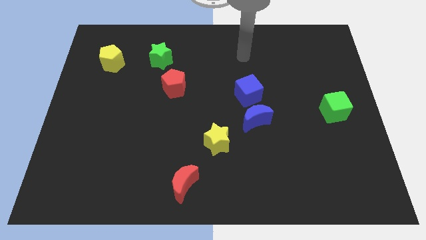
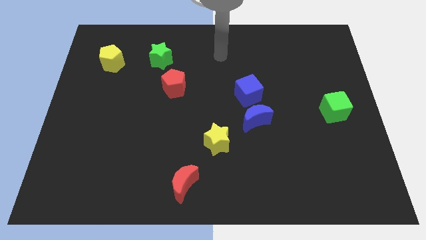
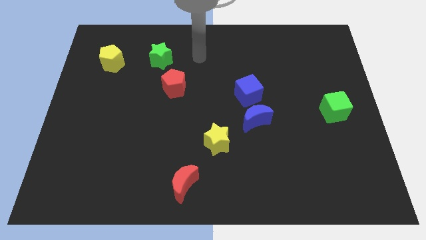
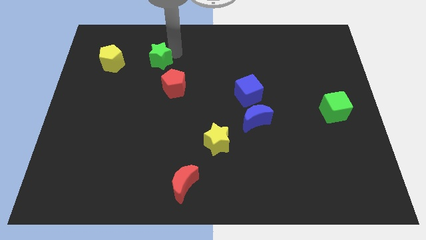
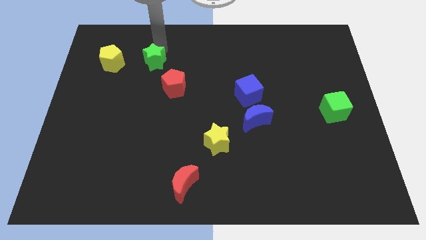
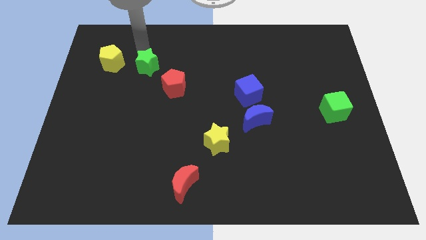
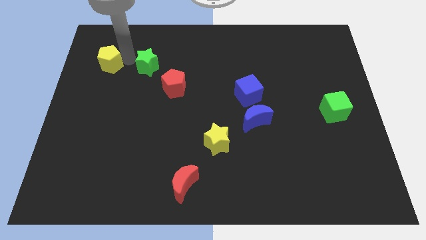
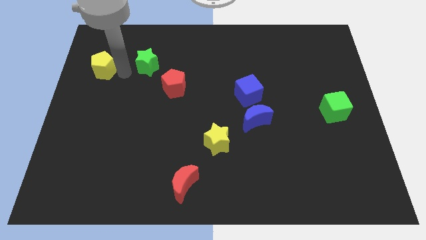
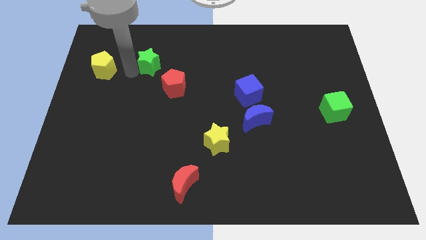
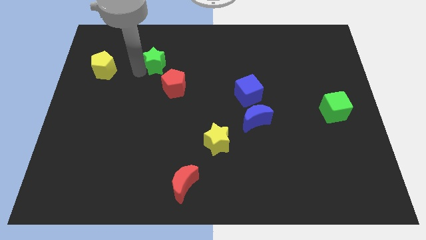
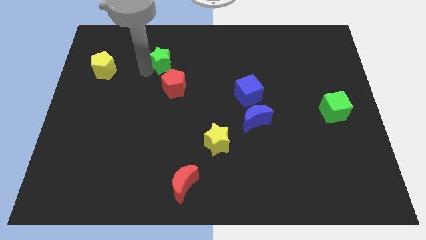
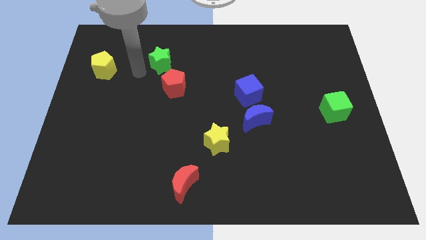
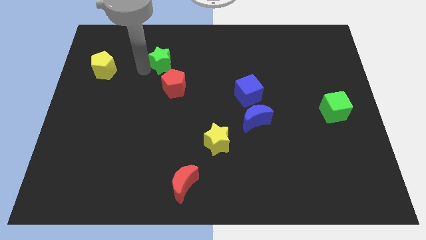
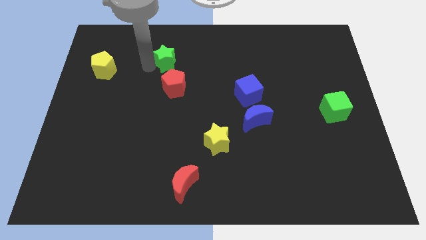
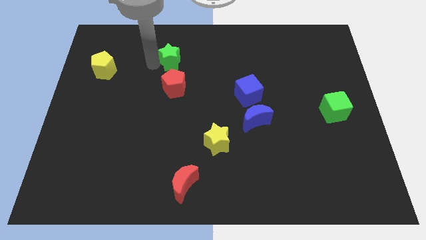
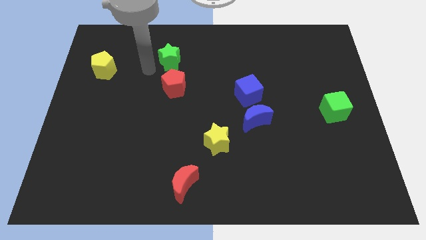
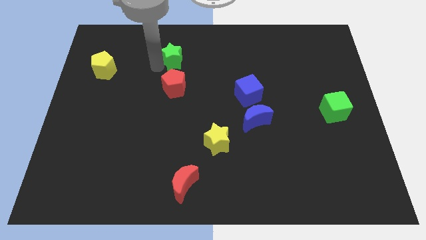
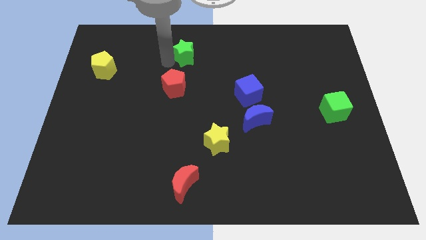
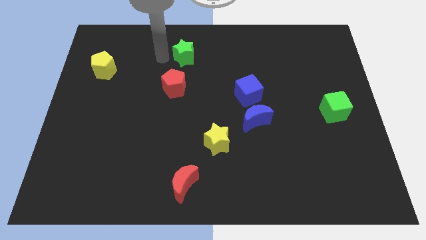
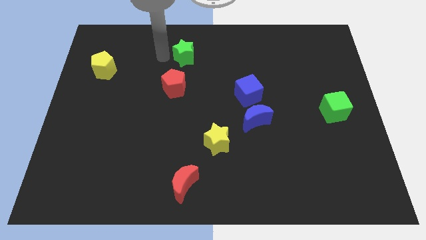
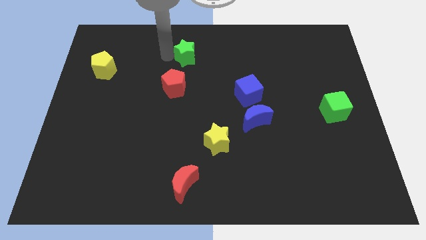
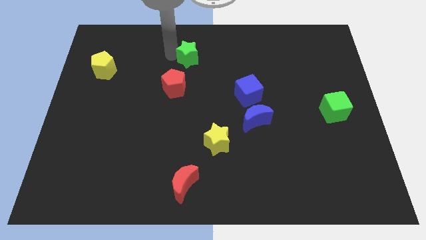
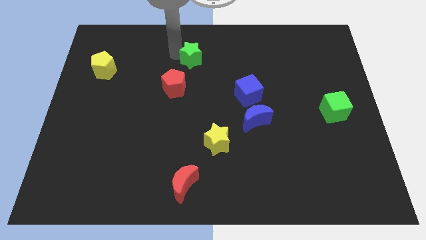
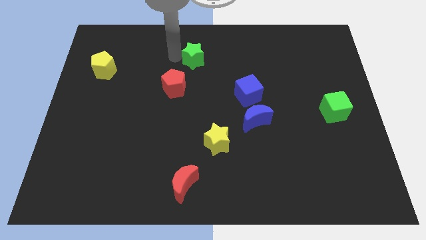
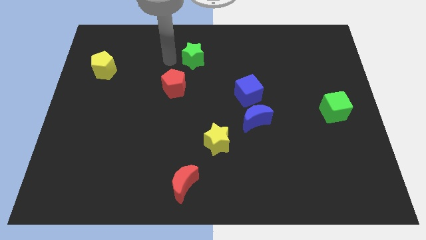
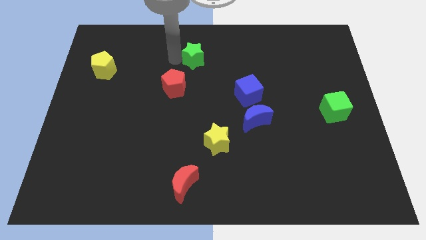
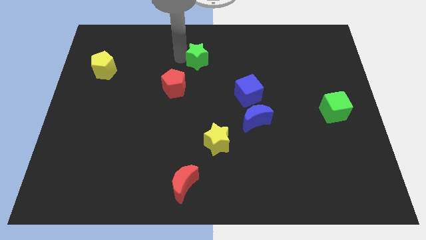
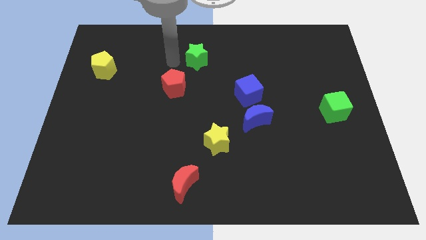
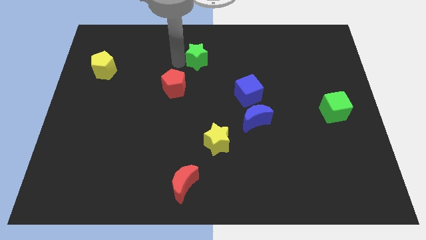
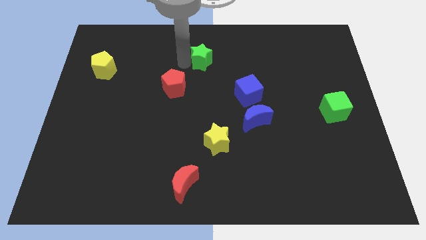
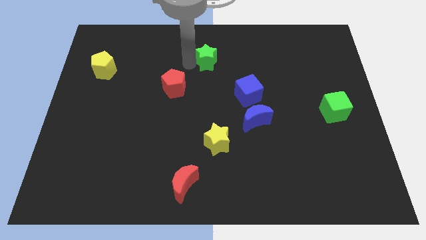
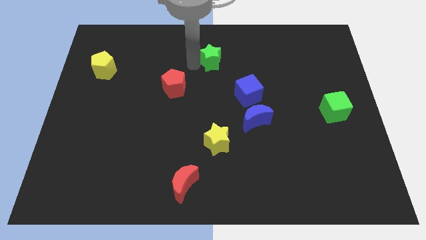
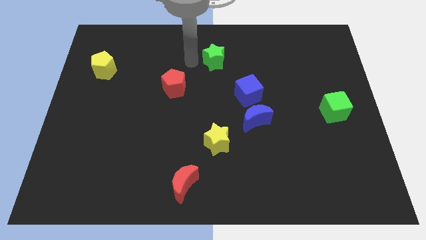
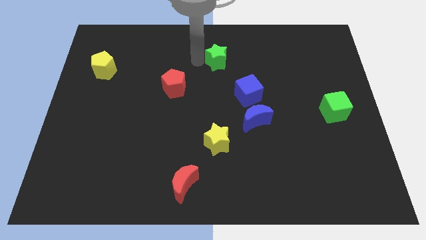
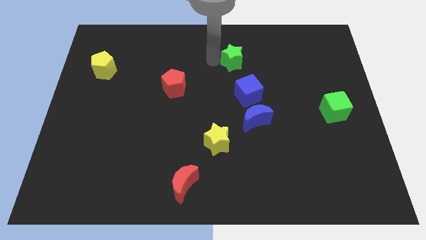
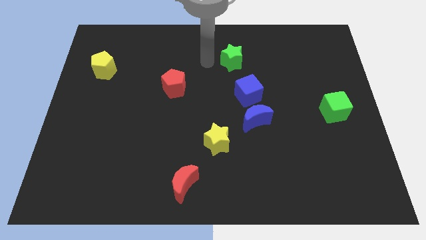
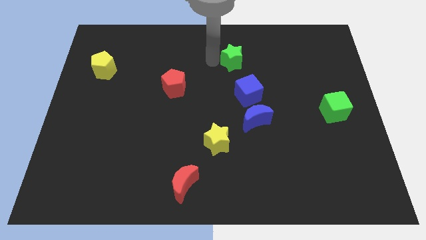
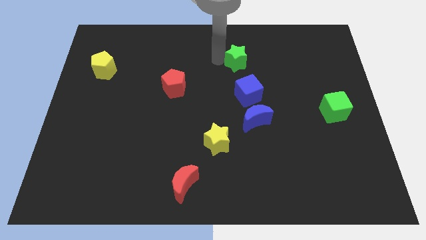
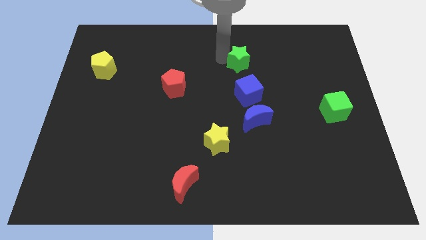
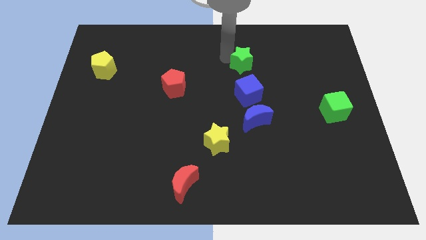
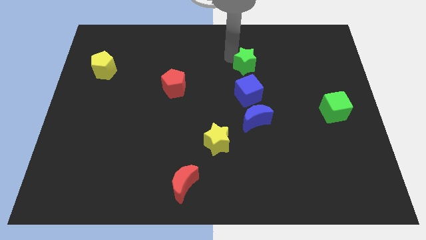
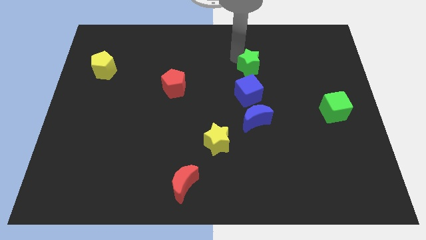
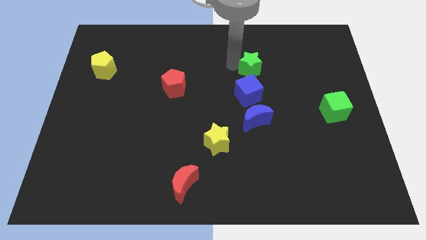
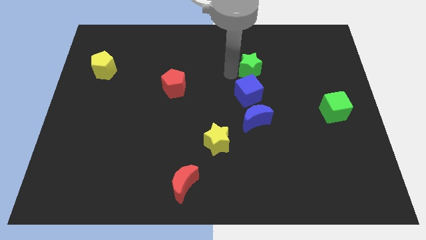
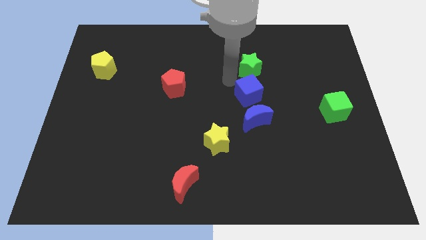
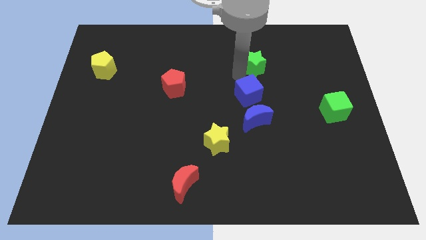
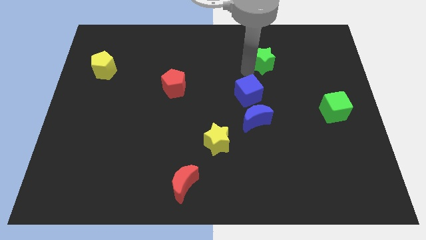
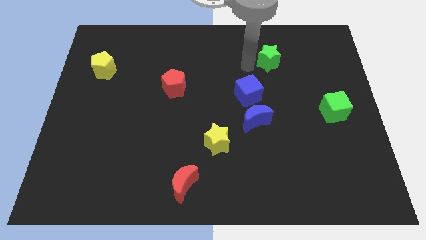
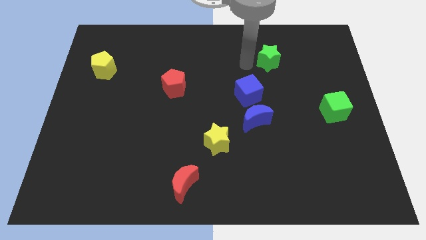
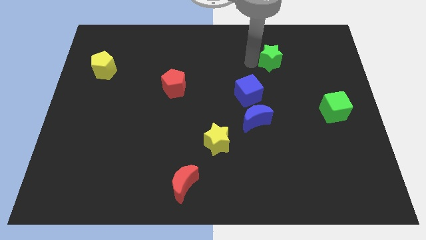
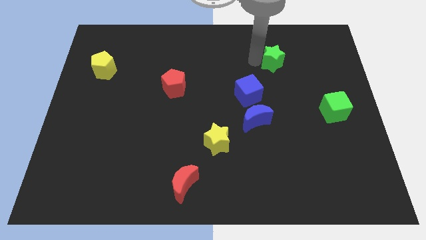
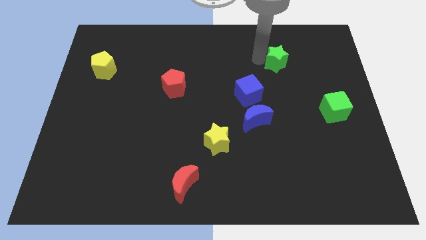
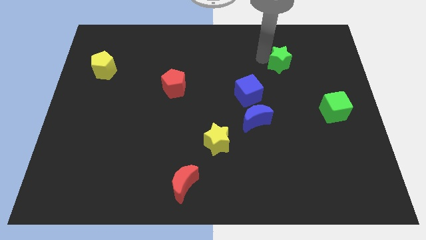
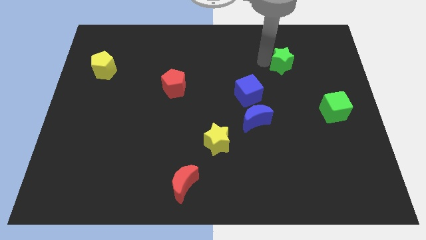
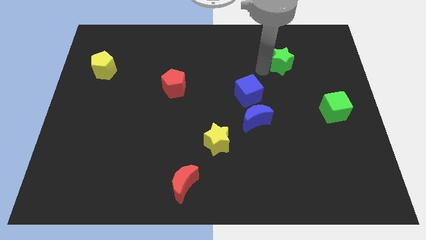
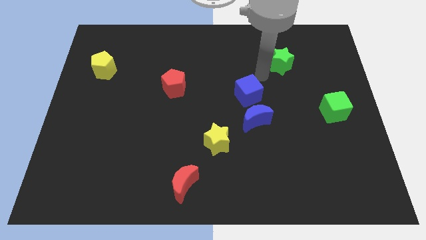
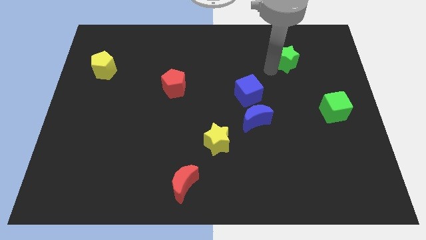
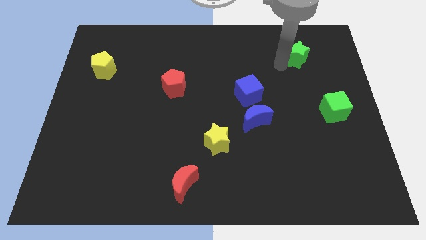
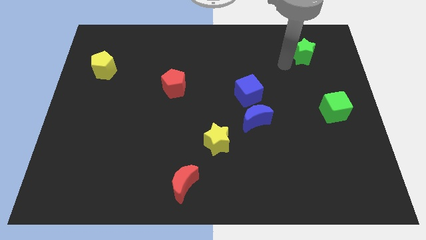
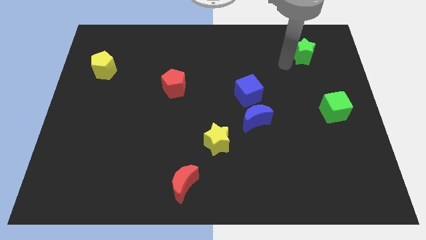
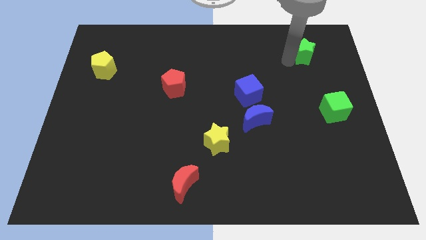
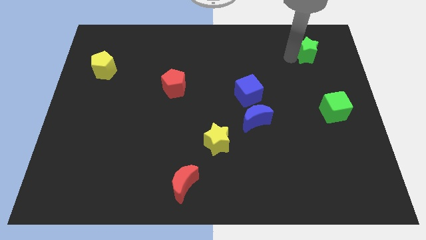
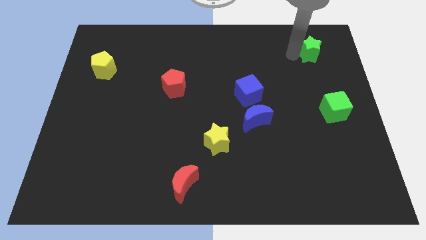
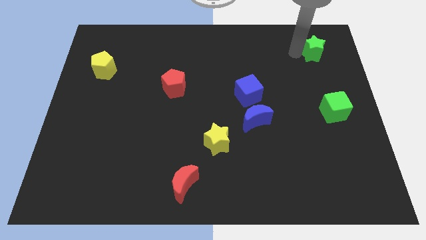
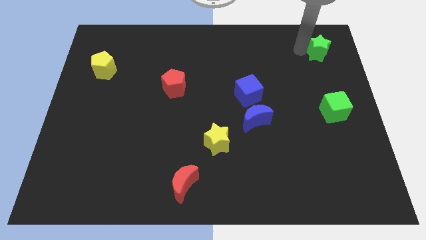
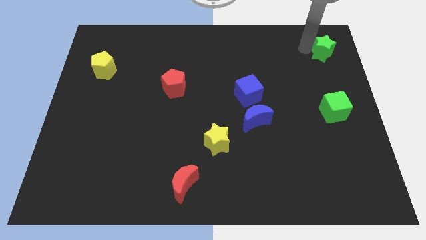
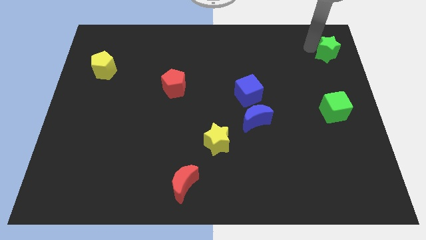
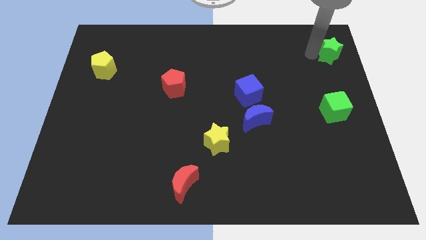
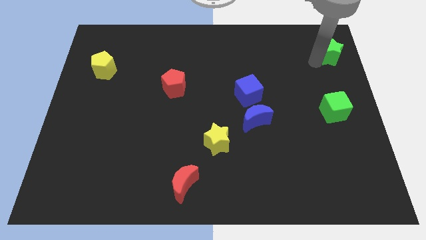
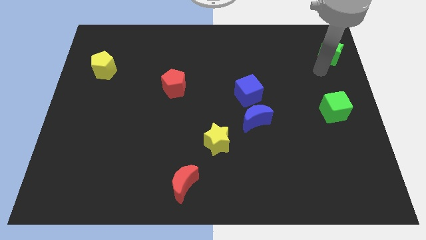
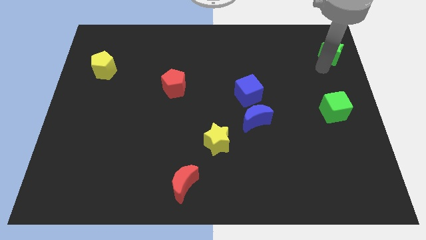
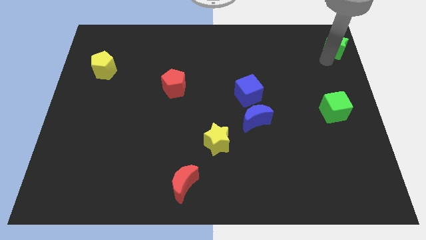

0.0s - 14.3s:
put the green star to the top right
